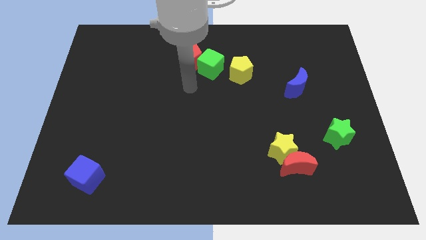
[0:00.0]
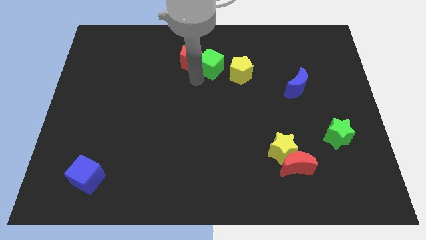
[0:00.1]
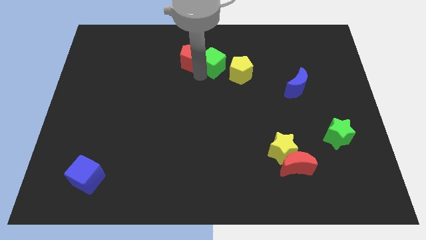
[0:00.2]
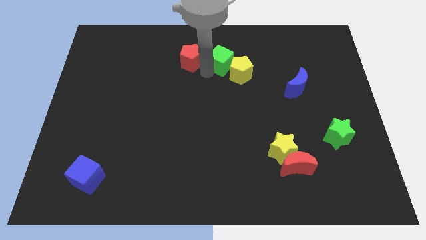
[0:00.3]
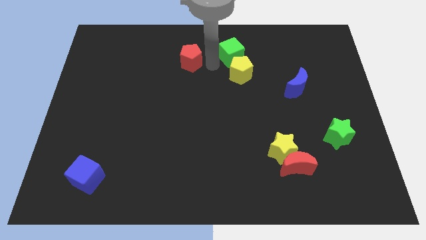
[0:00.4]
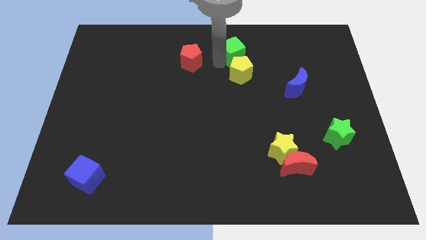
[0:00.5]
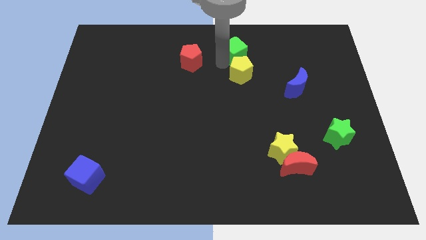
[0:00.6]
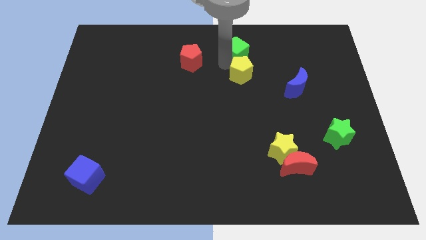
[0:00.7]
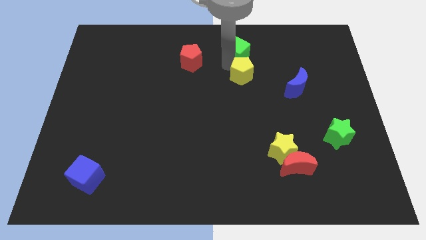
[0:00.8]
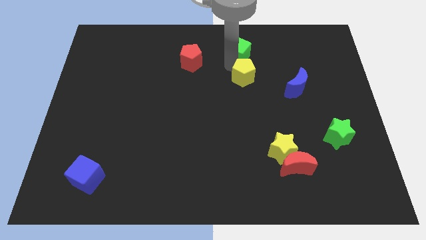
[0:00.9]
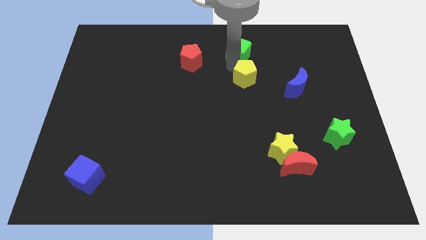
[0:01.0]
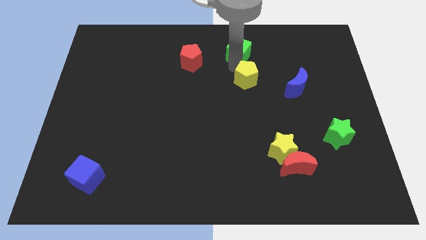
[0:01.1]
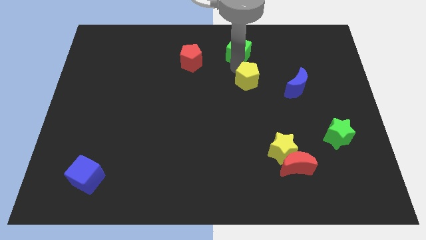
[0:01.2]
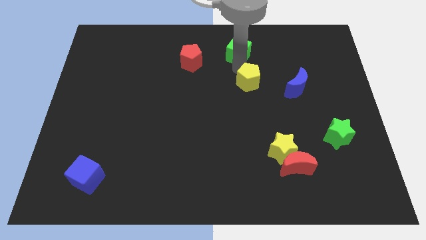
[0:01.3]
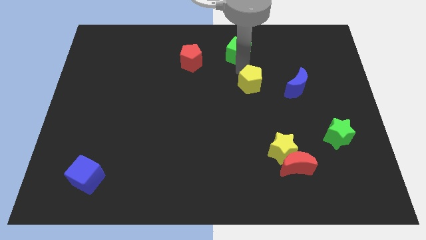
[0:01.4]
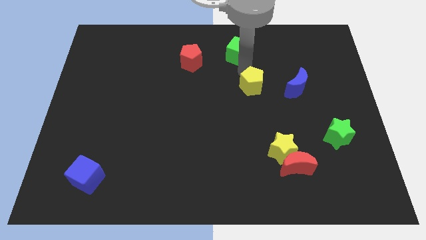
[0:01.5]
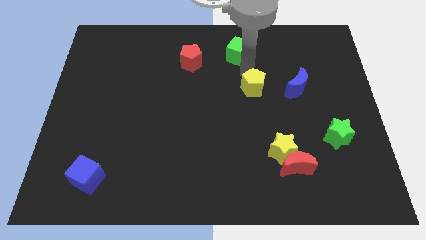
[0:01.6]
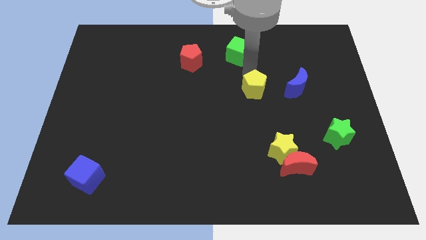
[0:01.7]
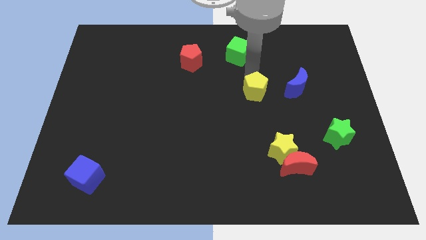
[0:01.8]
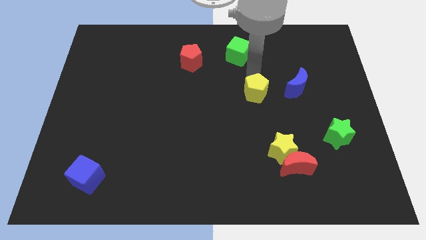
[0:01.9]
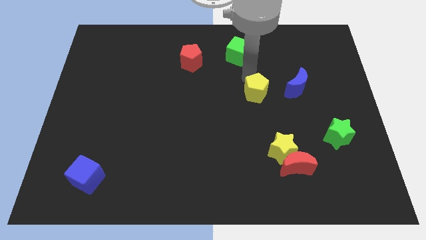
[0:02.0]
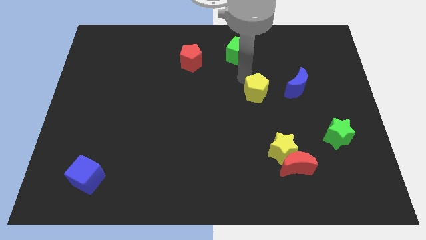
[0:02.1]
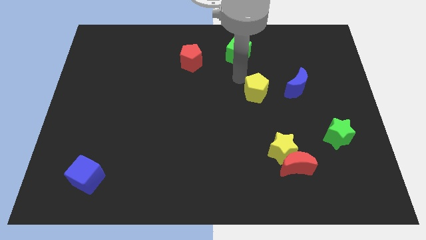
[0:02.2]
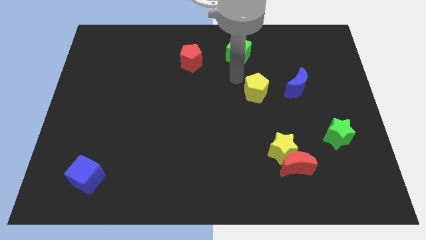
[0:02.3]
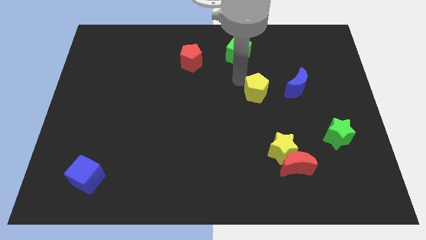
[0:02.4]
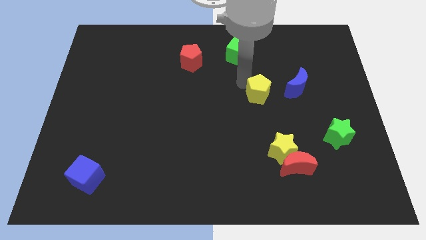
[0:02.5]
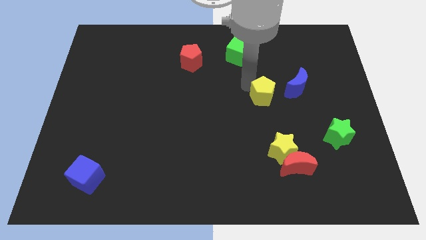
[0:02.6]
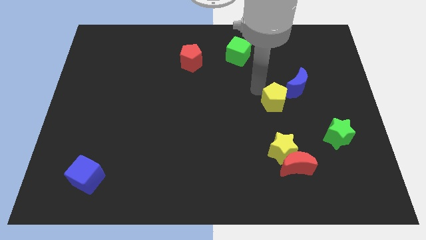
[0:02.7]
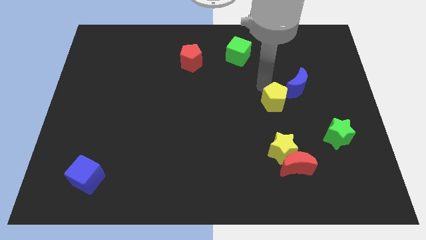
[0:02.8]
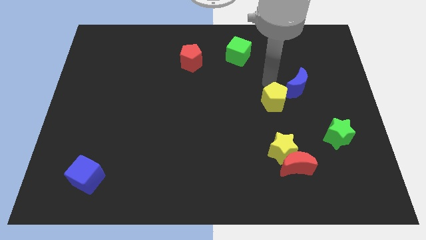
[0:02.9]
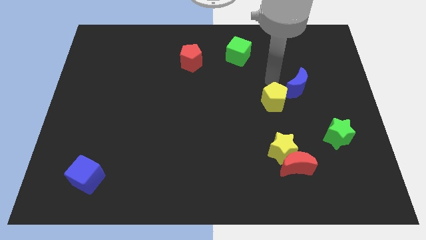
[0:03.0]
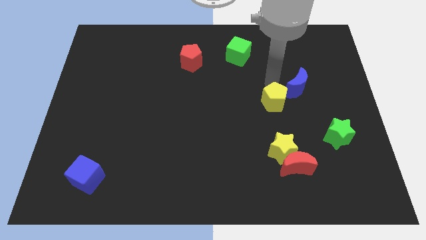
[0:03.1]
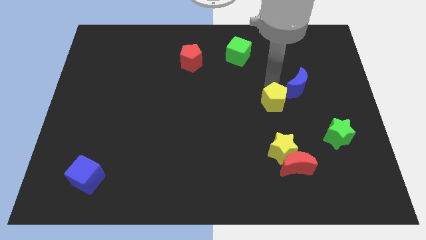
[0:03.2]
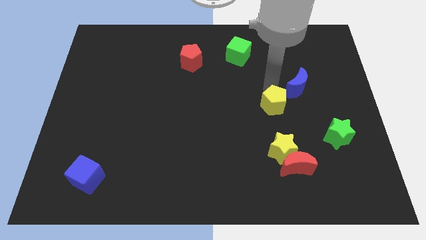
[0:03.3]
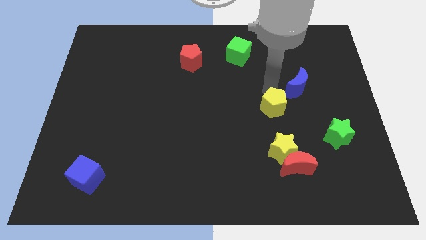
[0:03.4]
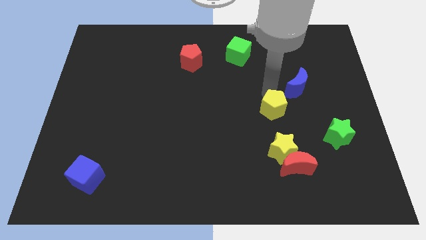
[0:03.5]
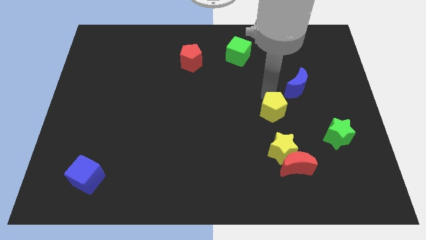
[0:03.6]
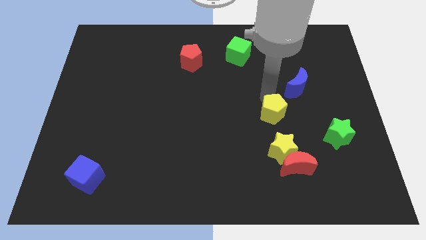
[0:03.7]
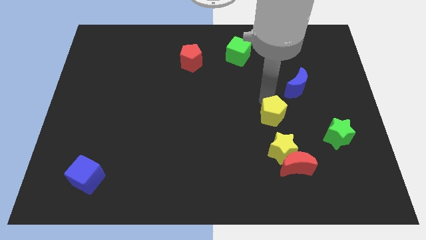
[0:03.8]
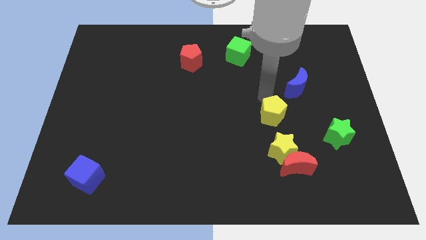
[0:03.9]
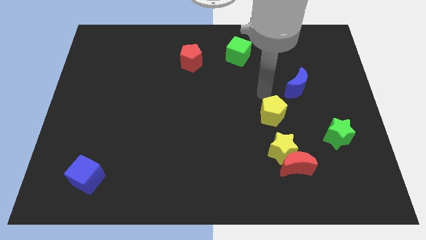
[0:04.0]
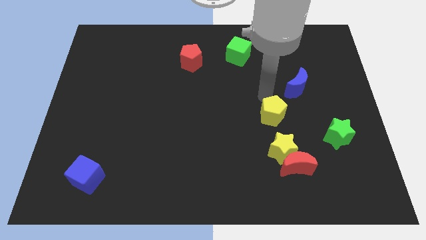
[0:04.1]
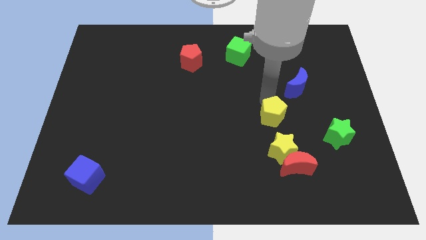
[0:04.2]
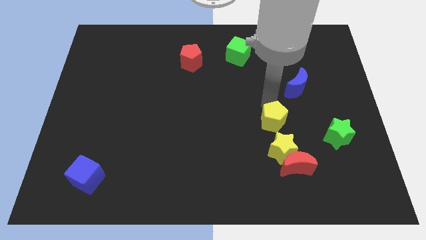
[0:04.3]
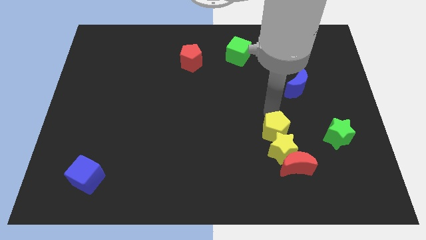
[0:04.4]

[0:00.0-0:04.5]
move the yellow pentagon to the yellow star

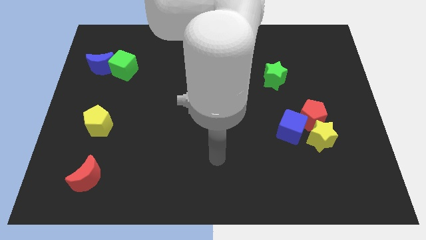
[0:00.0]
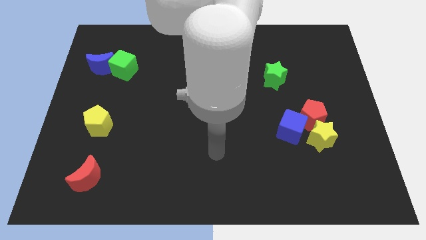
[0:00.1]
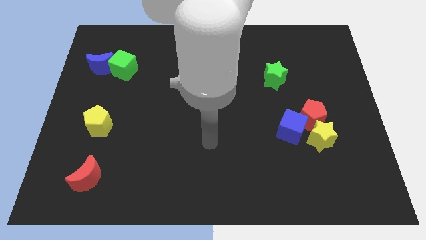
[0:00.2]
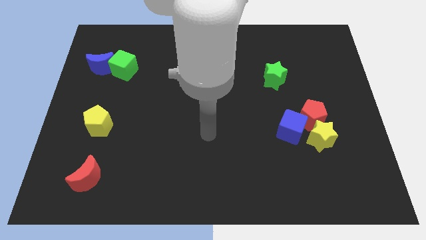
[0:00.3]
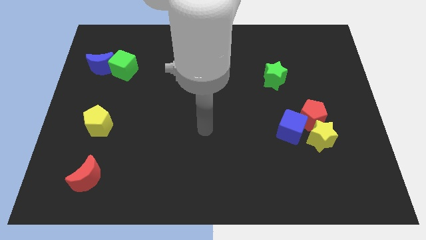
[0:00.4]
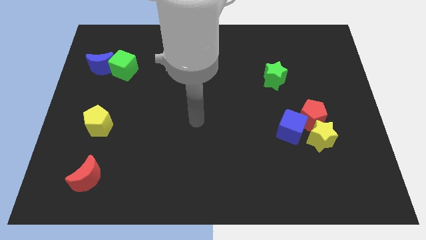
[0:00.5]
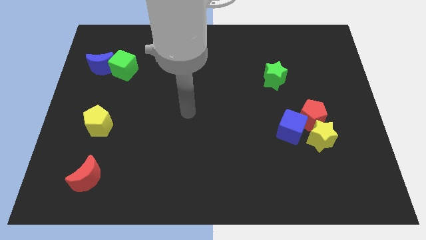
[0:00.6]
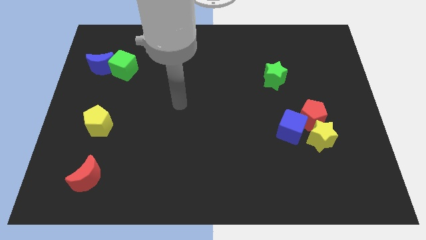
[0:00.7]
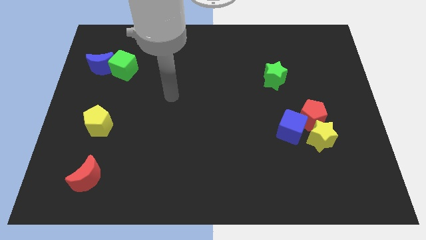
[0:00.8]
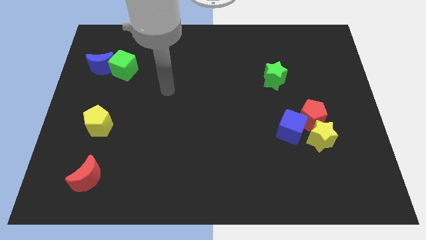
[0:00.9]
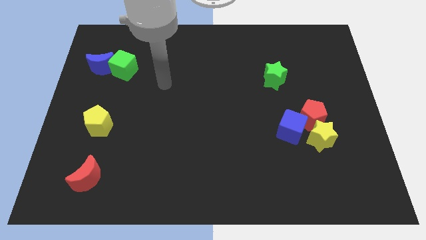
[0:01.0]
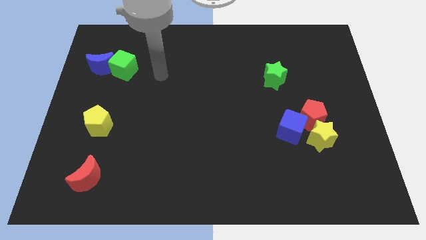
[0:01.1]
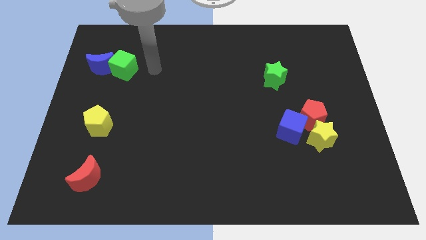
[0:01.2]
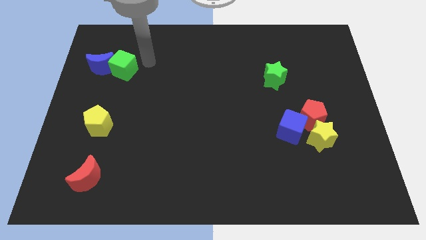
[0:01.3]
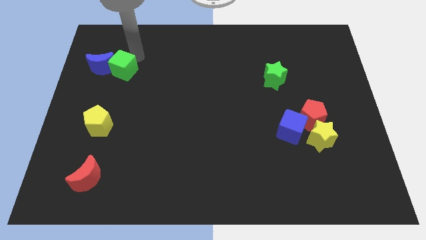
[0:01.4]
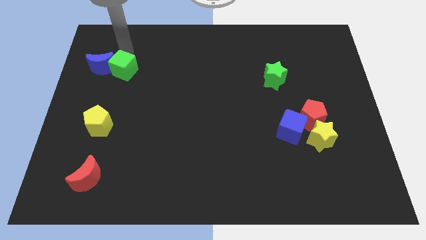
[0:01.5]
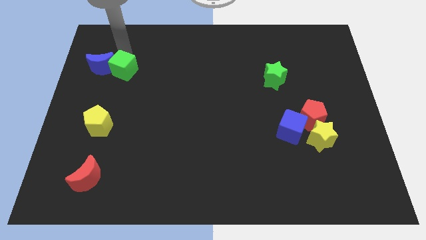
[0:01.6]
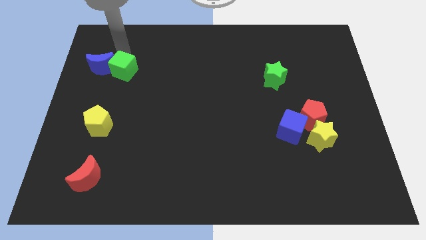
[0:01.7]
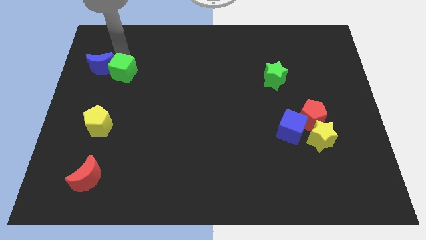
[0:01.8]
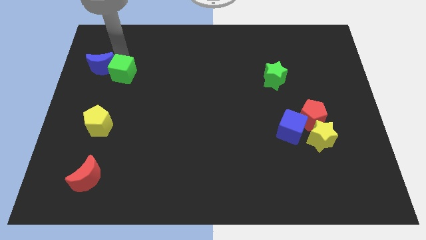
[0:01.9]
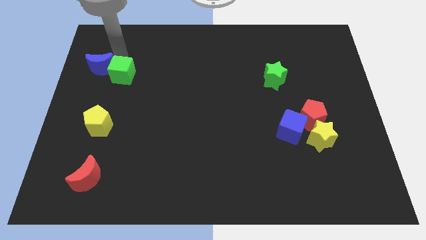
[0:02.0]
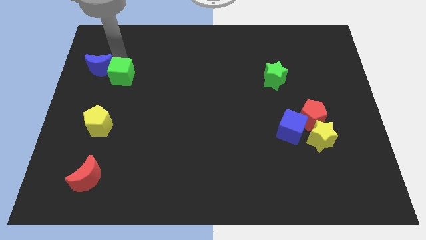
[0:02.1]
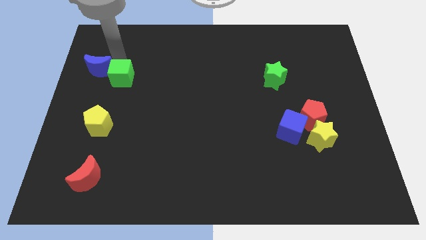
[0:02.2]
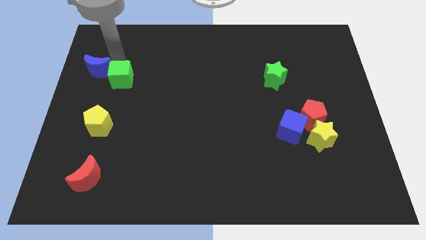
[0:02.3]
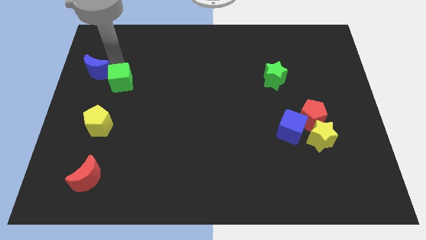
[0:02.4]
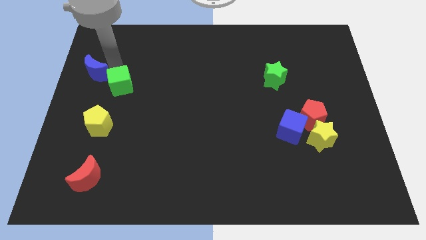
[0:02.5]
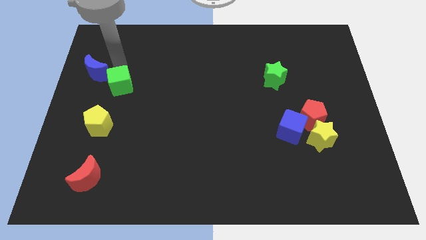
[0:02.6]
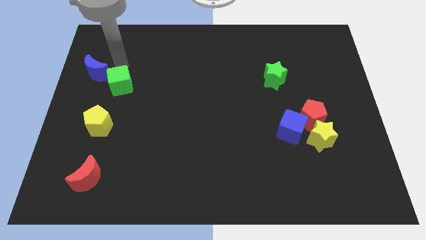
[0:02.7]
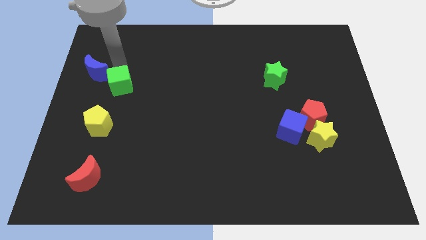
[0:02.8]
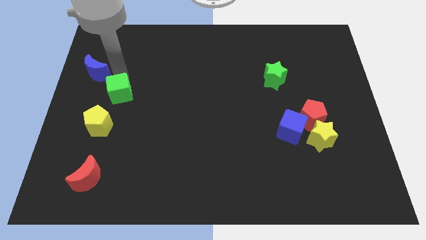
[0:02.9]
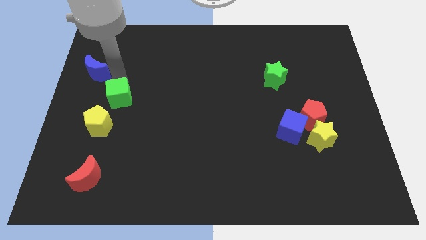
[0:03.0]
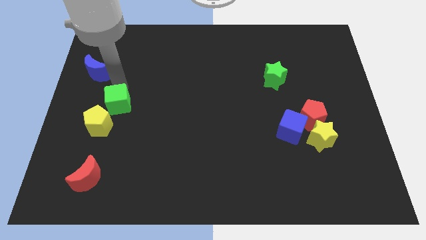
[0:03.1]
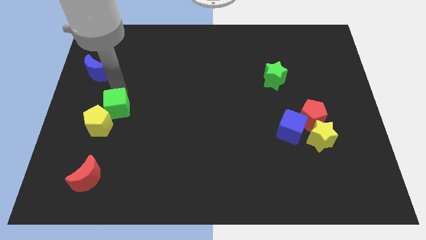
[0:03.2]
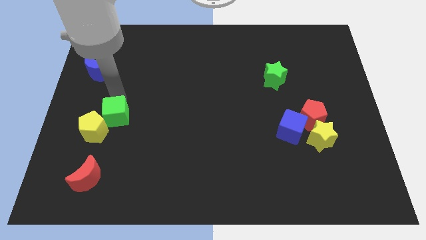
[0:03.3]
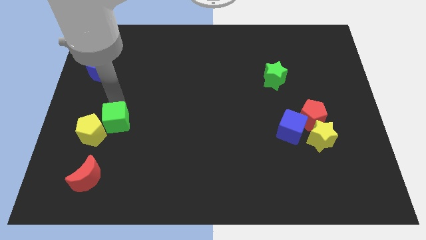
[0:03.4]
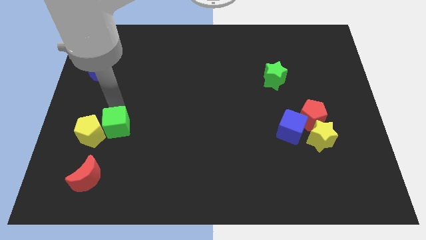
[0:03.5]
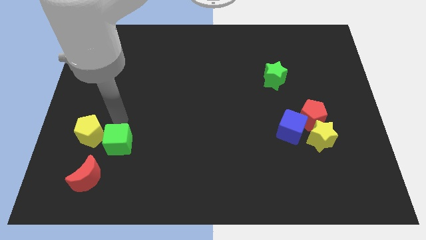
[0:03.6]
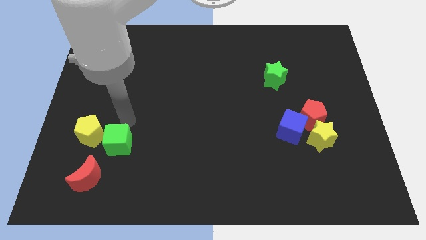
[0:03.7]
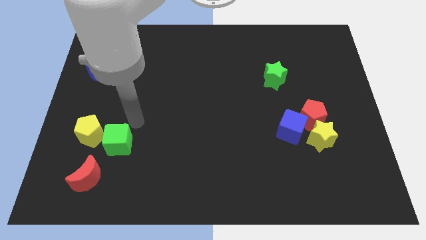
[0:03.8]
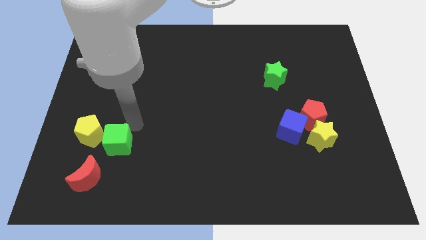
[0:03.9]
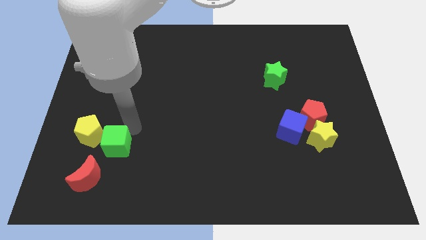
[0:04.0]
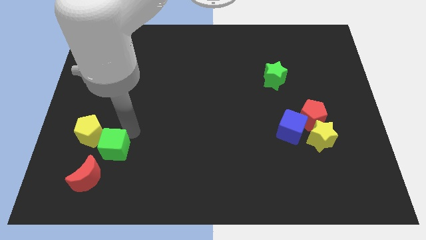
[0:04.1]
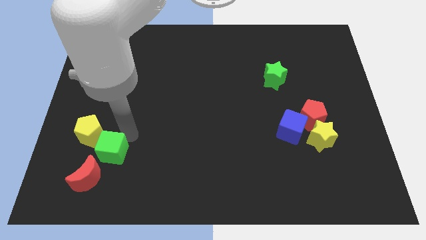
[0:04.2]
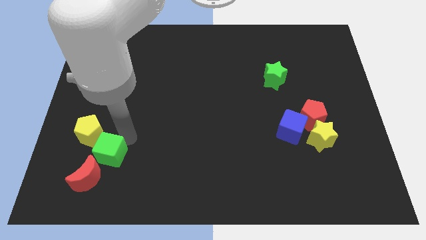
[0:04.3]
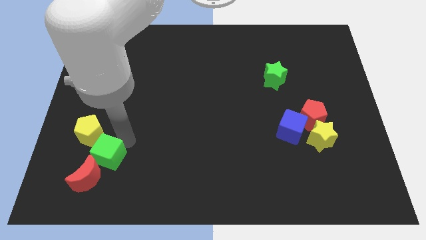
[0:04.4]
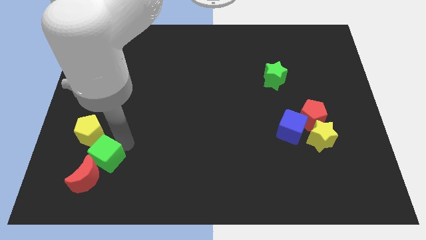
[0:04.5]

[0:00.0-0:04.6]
push the green cube close to the red moon
